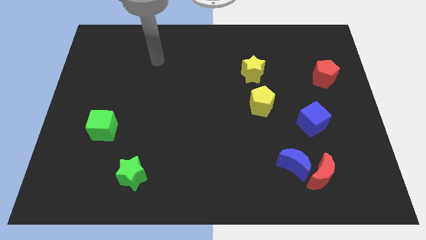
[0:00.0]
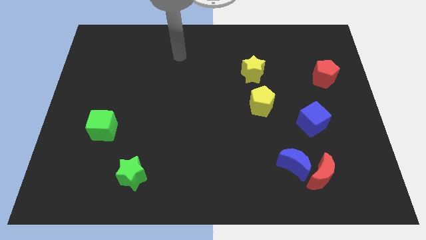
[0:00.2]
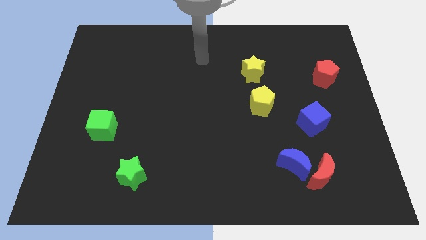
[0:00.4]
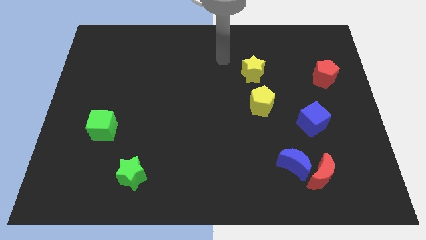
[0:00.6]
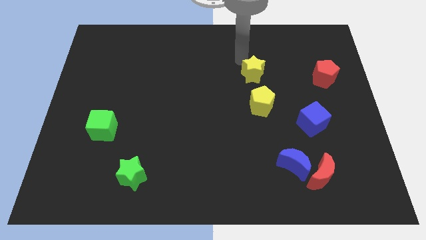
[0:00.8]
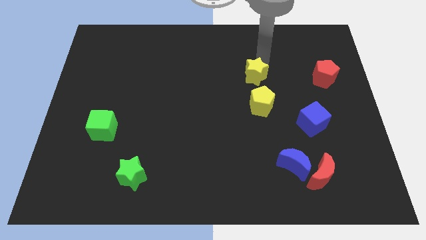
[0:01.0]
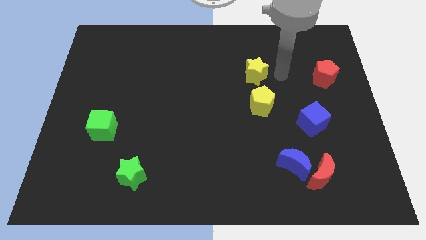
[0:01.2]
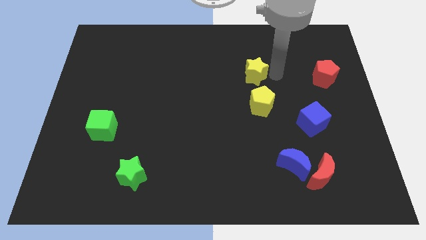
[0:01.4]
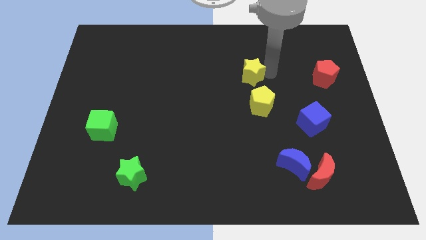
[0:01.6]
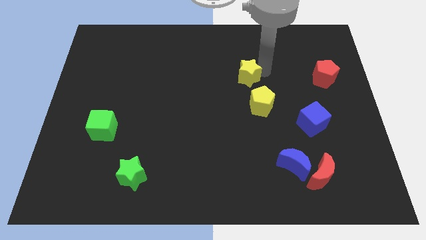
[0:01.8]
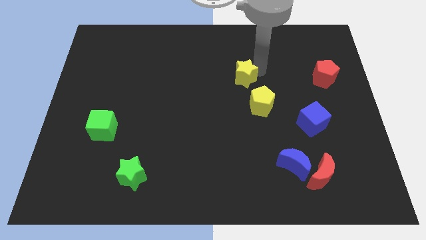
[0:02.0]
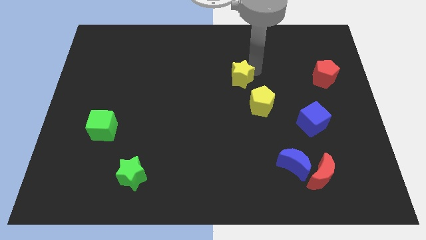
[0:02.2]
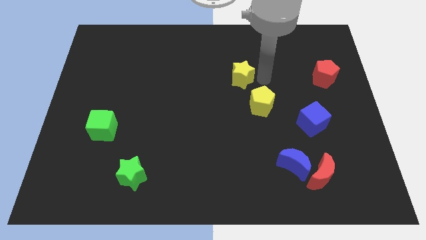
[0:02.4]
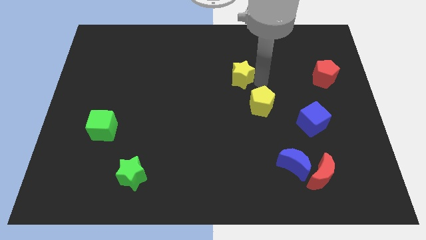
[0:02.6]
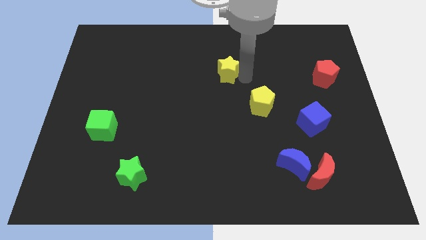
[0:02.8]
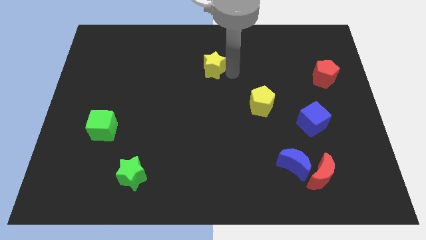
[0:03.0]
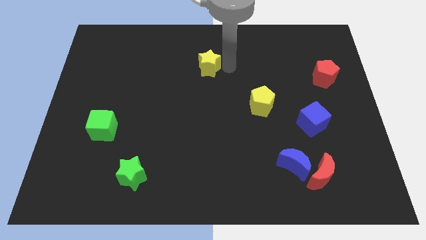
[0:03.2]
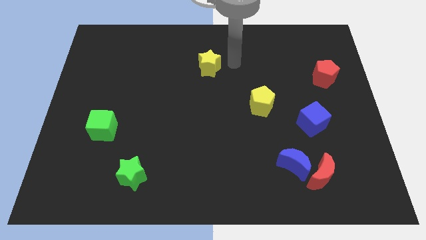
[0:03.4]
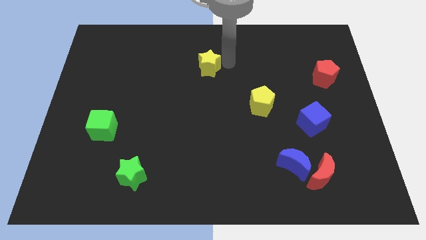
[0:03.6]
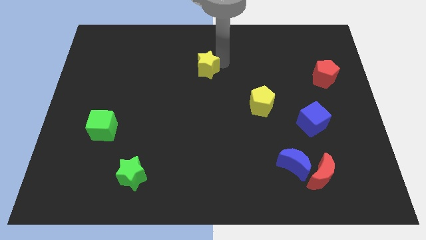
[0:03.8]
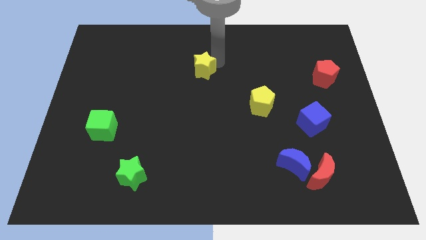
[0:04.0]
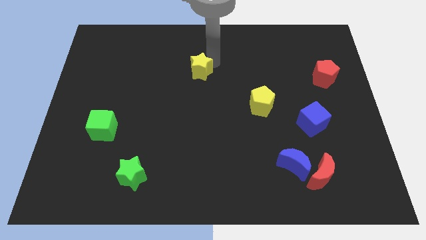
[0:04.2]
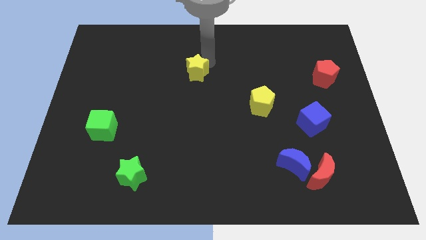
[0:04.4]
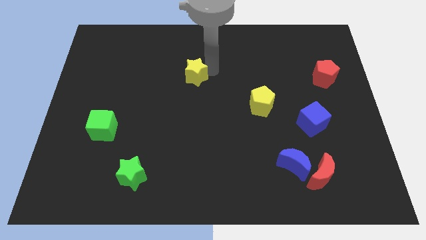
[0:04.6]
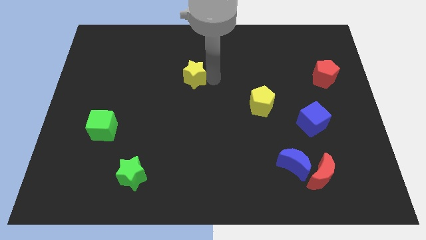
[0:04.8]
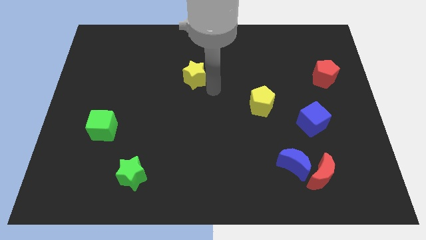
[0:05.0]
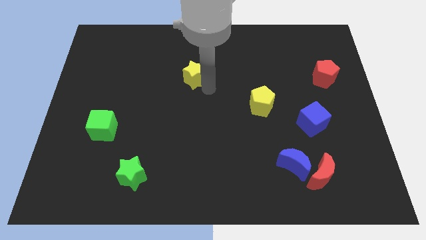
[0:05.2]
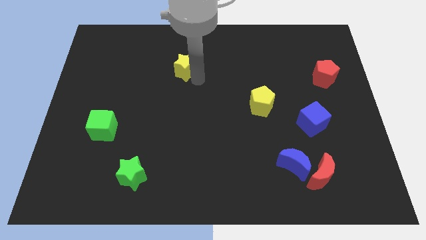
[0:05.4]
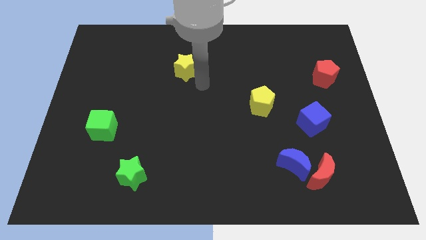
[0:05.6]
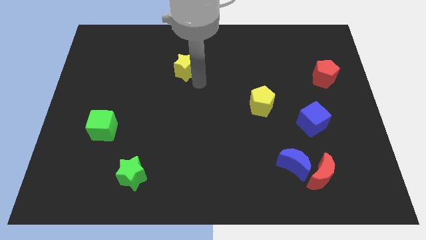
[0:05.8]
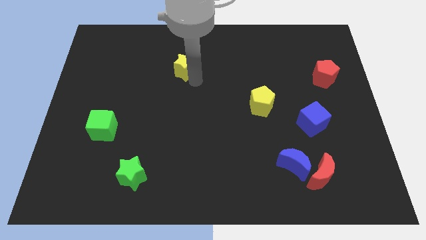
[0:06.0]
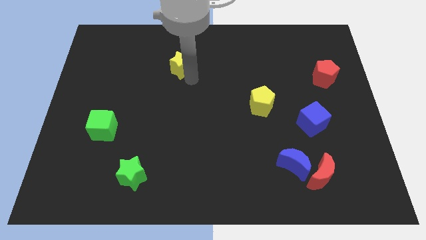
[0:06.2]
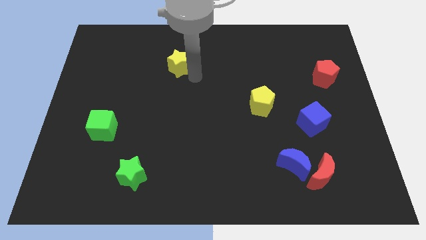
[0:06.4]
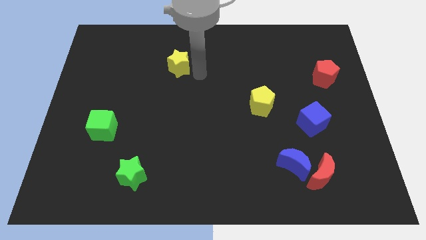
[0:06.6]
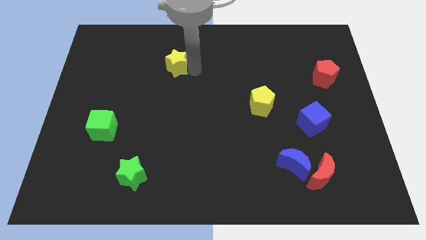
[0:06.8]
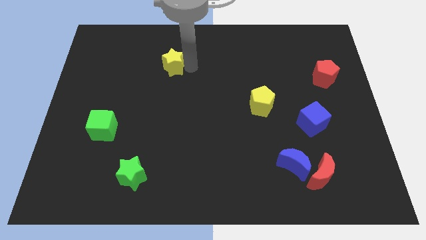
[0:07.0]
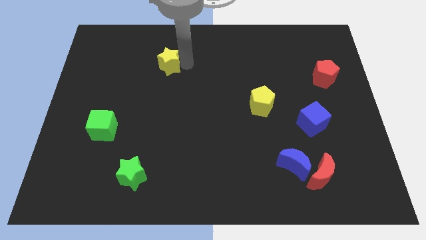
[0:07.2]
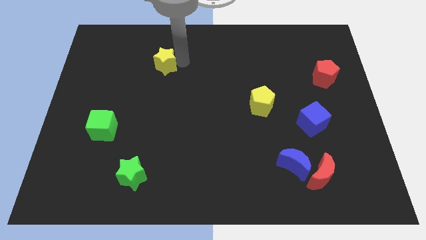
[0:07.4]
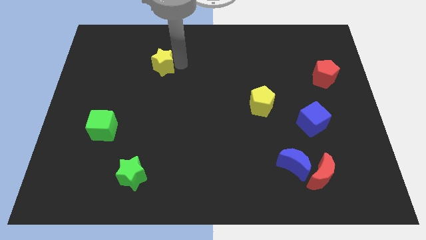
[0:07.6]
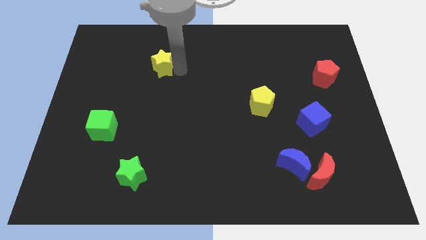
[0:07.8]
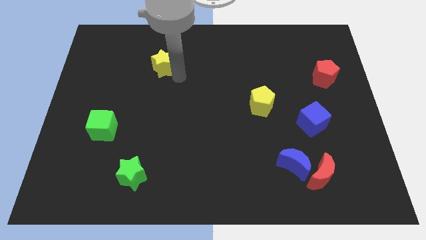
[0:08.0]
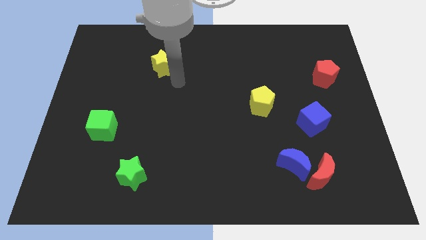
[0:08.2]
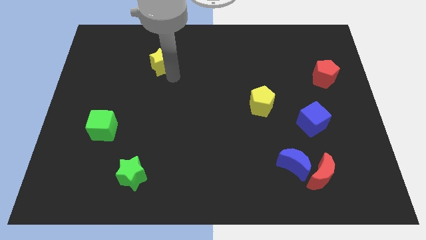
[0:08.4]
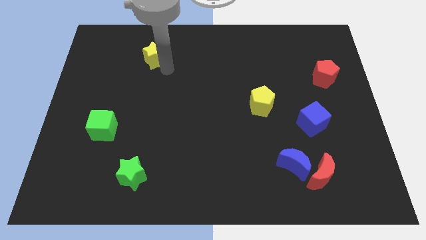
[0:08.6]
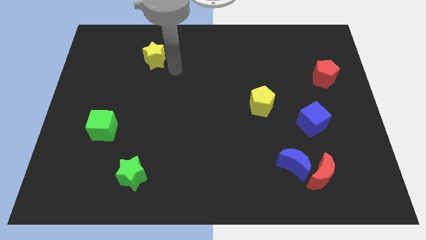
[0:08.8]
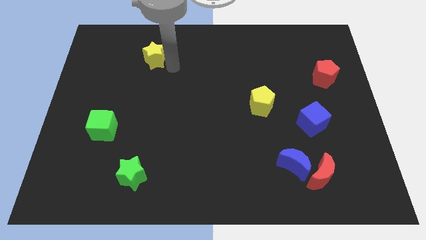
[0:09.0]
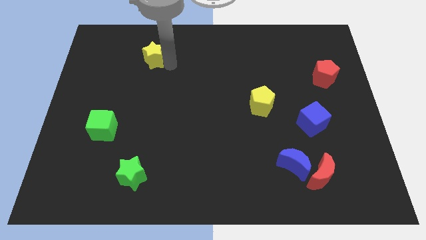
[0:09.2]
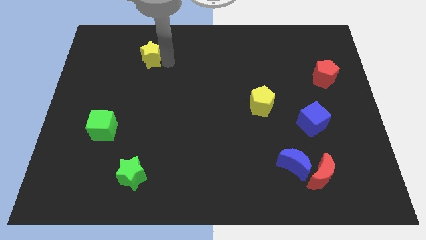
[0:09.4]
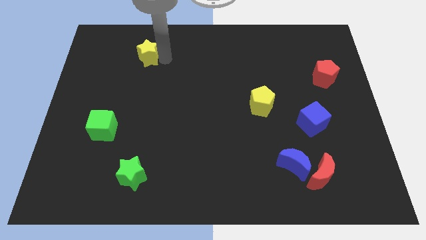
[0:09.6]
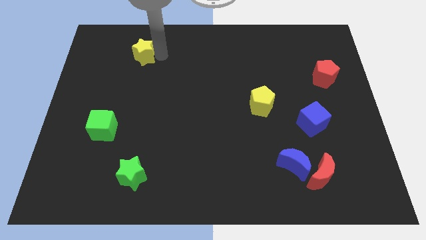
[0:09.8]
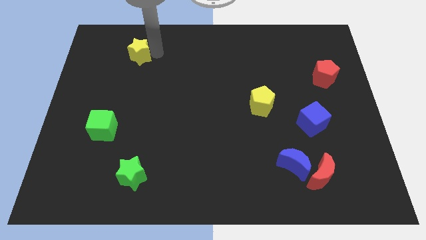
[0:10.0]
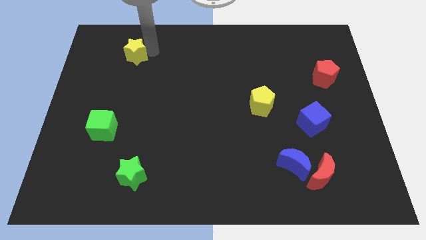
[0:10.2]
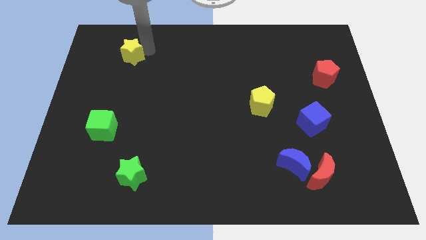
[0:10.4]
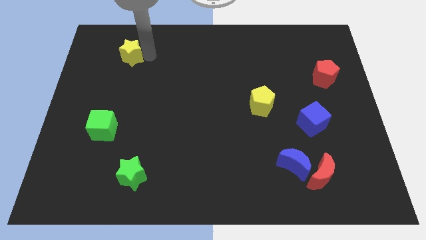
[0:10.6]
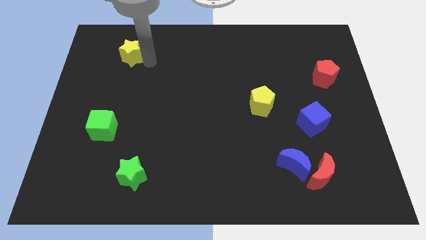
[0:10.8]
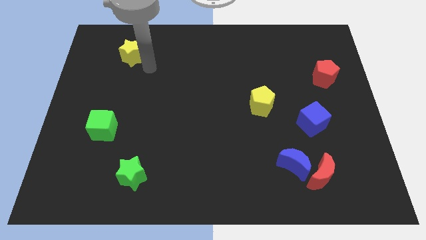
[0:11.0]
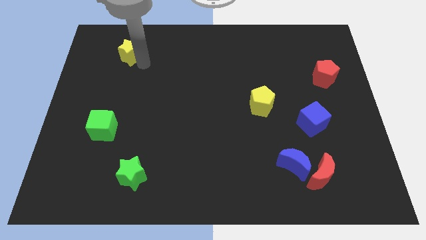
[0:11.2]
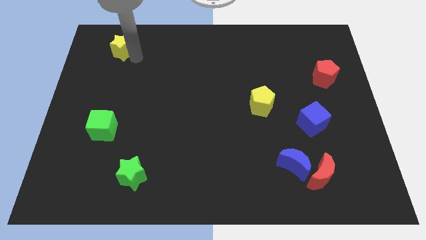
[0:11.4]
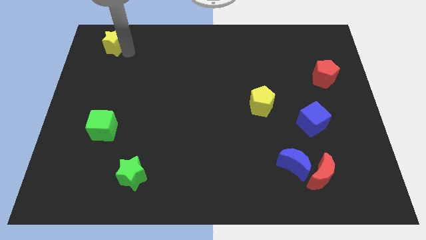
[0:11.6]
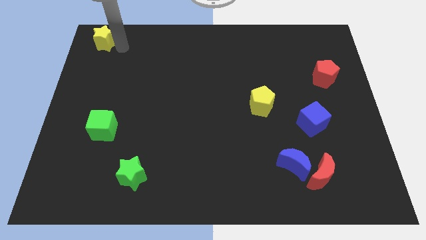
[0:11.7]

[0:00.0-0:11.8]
push the yellow star to the top left
